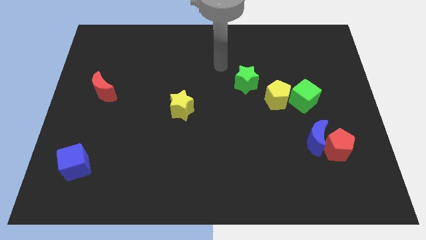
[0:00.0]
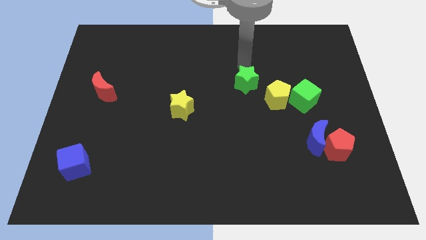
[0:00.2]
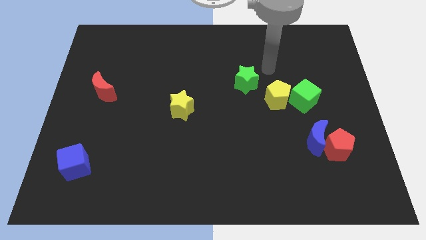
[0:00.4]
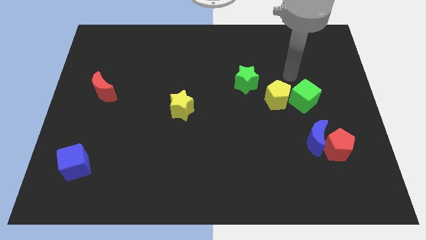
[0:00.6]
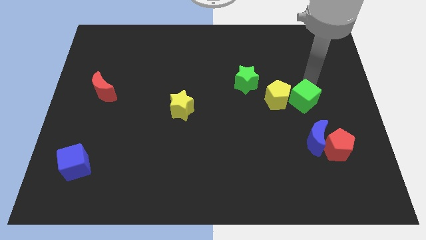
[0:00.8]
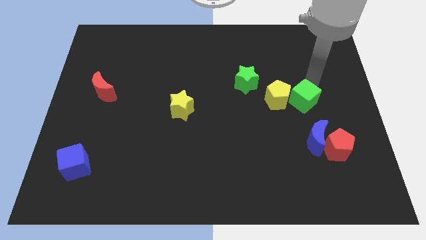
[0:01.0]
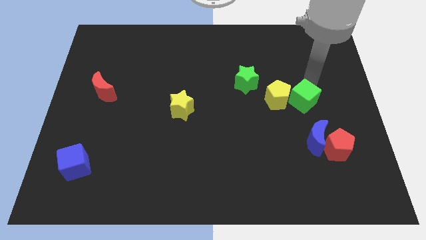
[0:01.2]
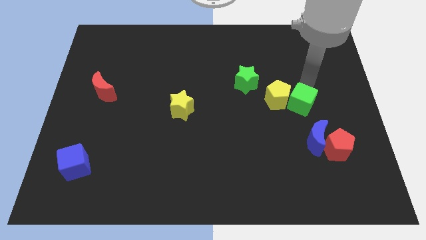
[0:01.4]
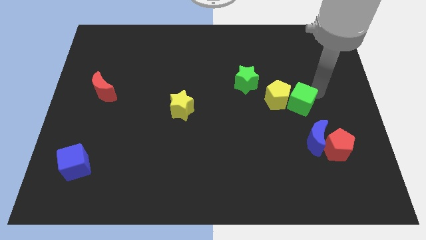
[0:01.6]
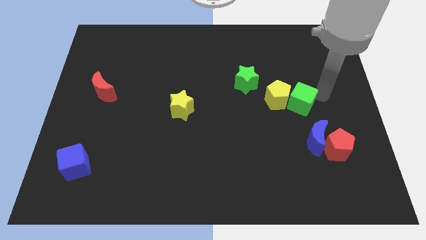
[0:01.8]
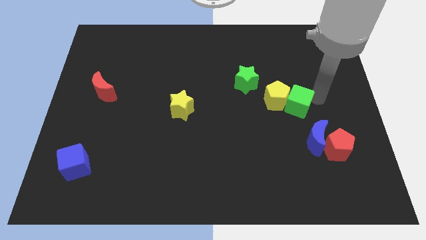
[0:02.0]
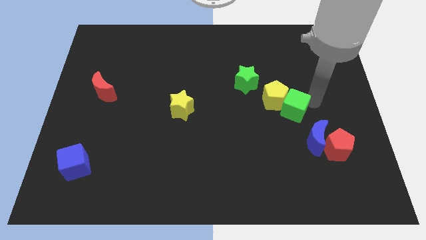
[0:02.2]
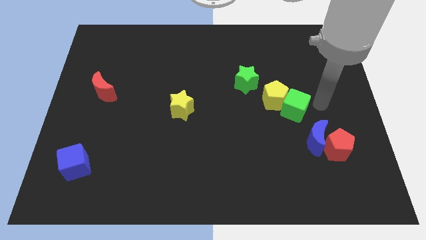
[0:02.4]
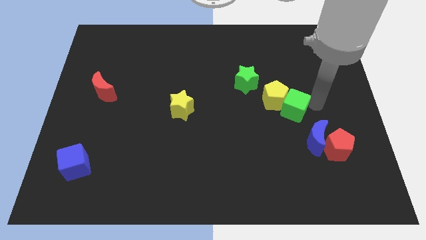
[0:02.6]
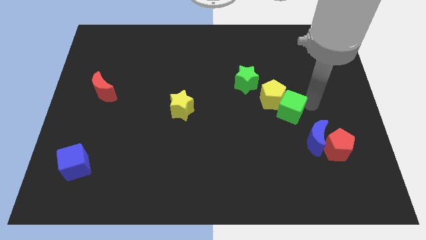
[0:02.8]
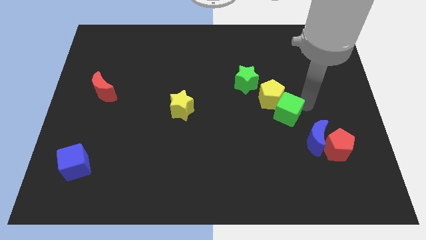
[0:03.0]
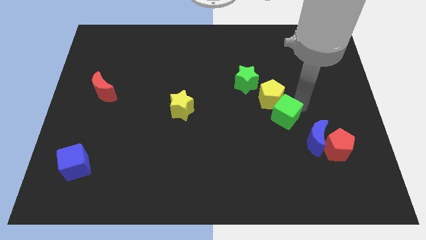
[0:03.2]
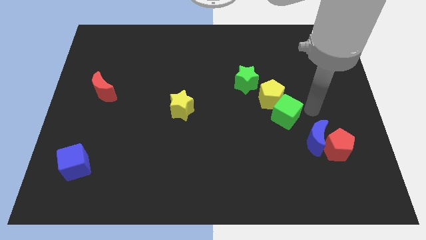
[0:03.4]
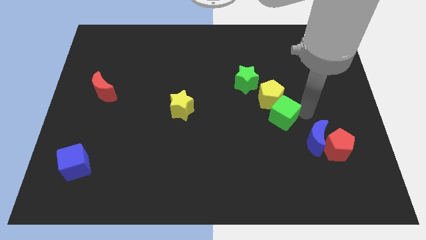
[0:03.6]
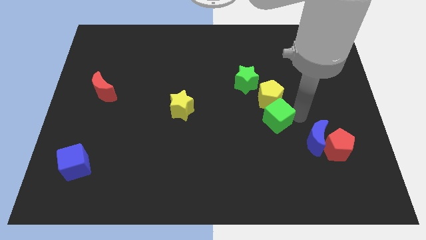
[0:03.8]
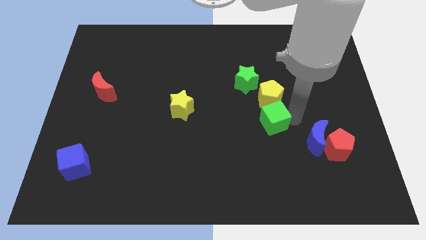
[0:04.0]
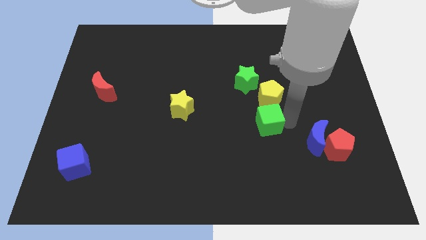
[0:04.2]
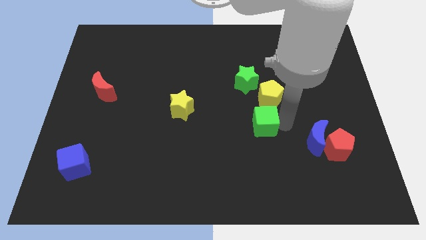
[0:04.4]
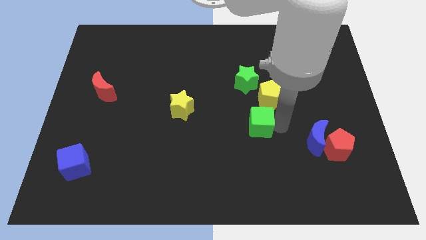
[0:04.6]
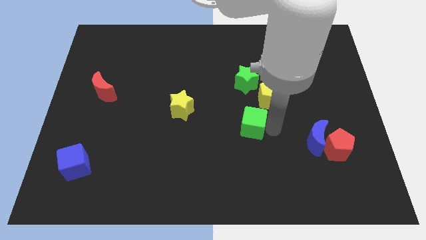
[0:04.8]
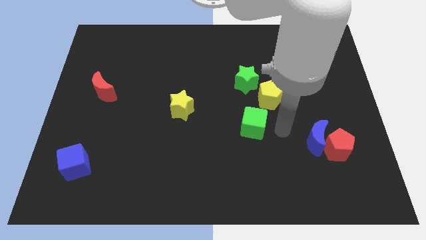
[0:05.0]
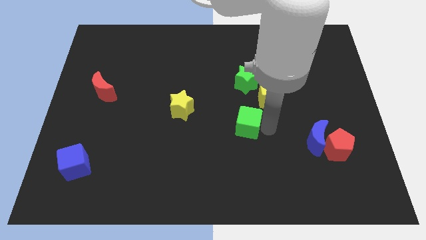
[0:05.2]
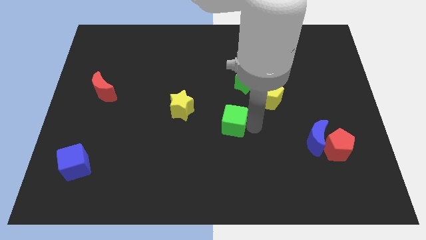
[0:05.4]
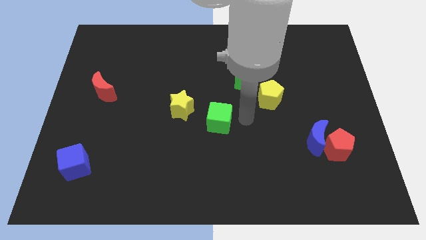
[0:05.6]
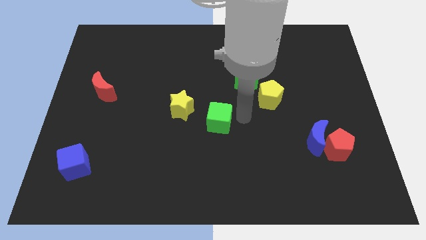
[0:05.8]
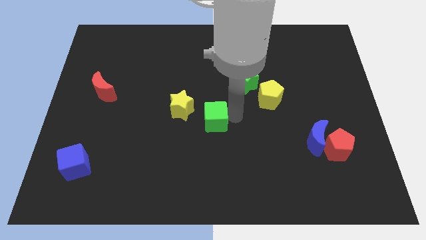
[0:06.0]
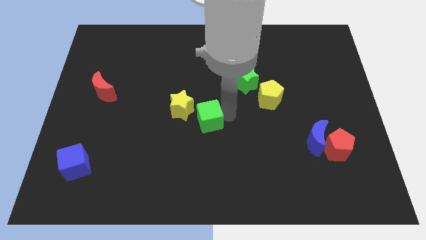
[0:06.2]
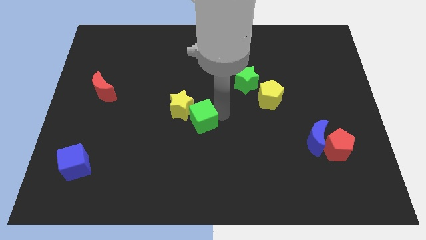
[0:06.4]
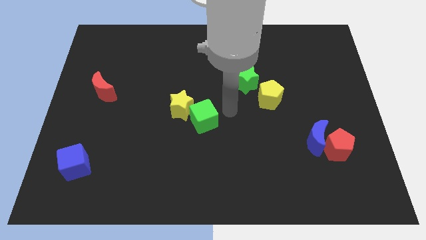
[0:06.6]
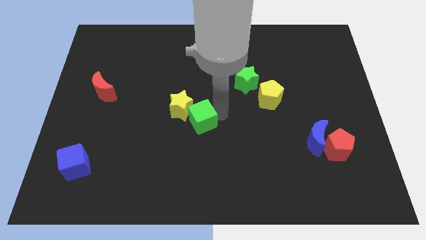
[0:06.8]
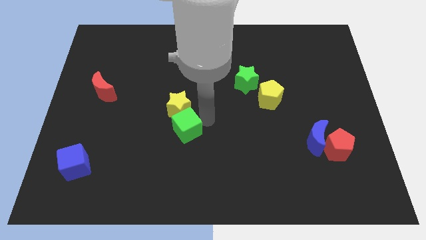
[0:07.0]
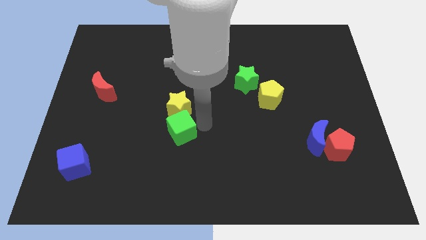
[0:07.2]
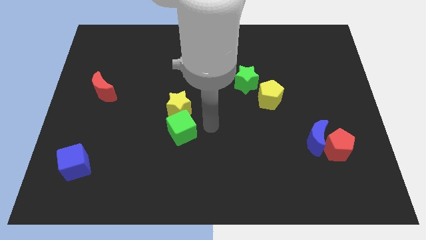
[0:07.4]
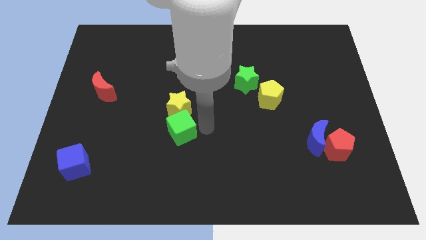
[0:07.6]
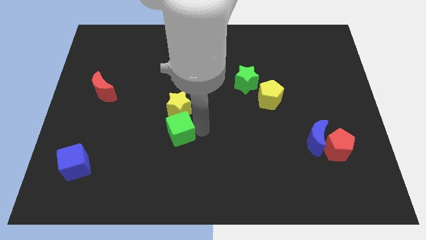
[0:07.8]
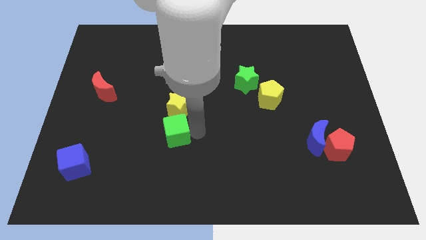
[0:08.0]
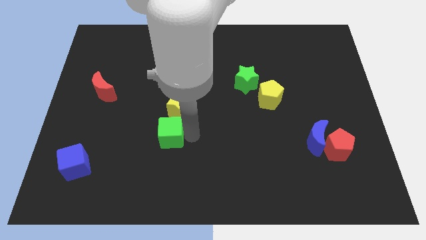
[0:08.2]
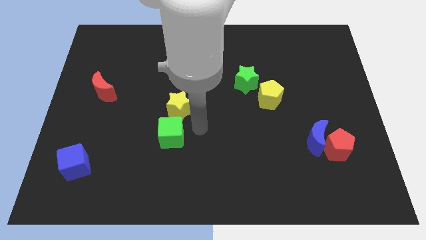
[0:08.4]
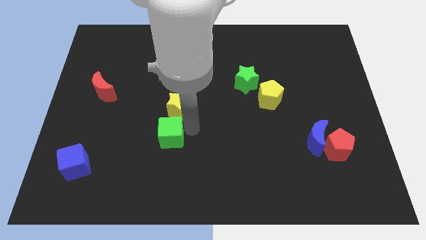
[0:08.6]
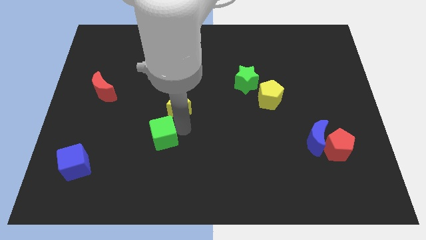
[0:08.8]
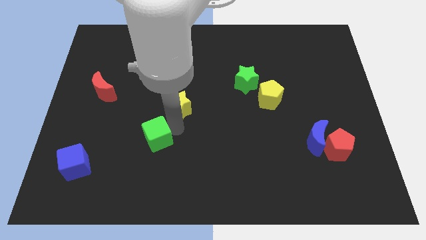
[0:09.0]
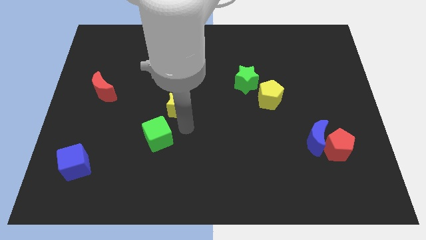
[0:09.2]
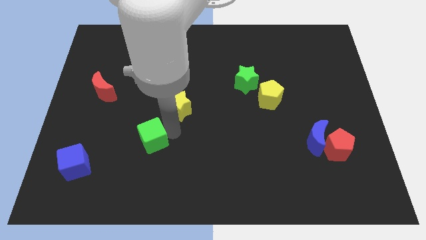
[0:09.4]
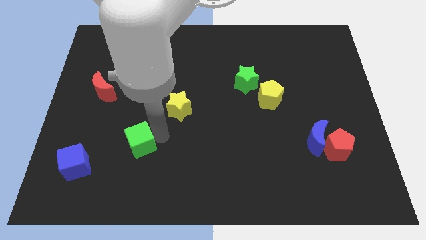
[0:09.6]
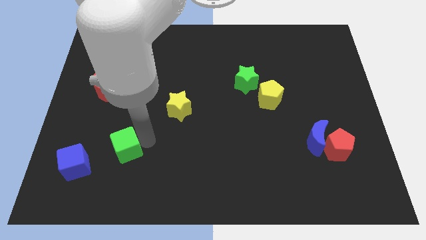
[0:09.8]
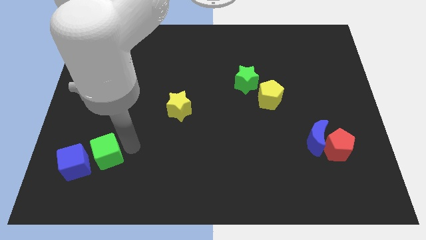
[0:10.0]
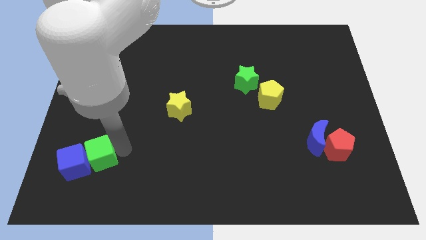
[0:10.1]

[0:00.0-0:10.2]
put the green cube to the blue cube

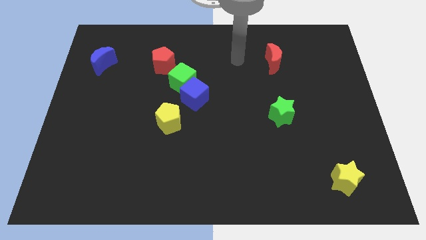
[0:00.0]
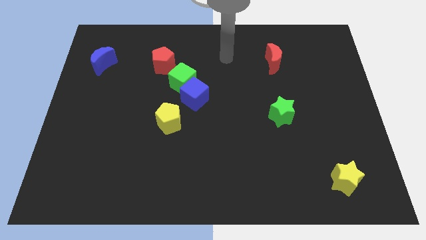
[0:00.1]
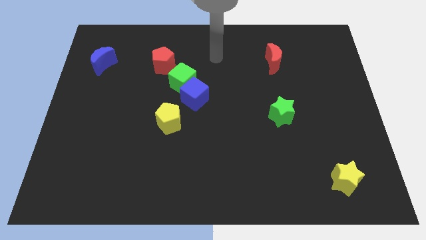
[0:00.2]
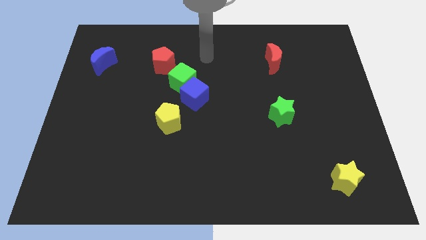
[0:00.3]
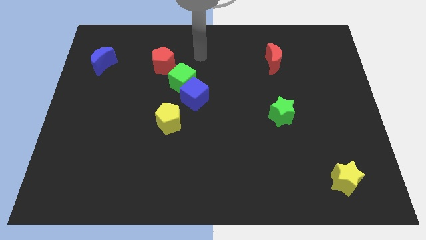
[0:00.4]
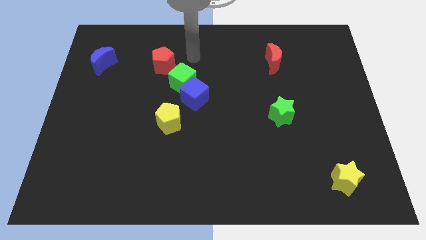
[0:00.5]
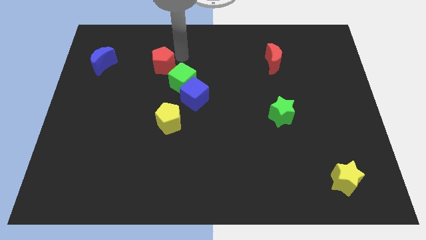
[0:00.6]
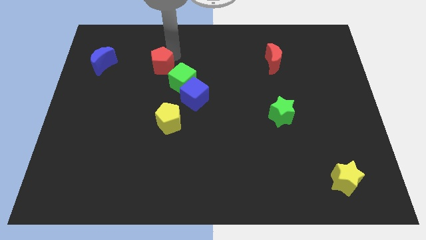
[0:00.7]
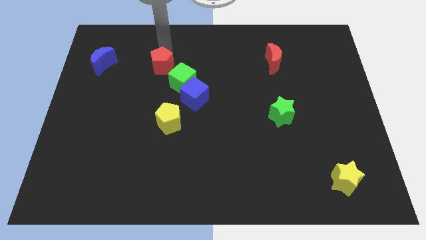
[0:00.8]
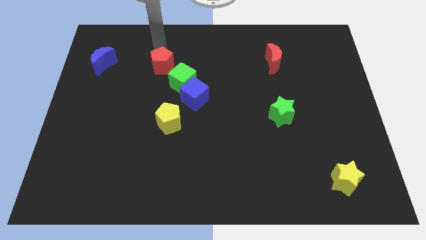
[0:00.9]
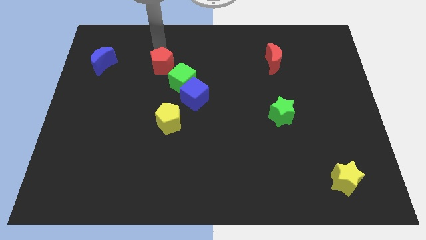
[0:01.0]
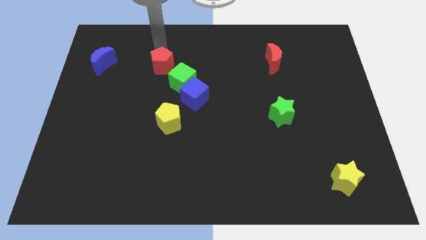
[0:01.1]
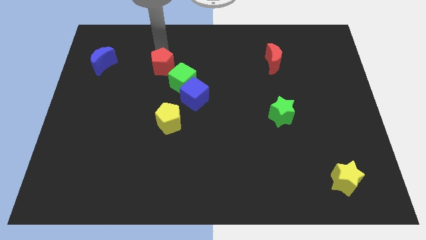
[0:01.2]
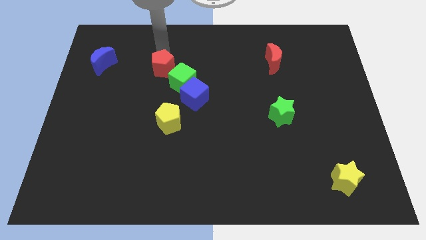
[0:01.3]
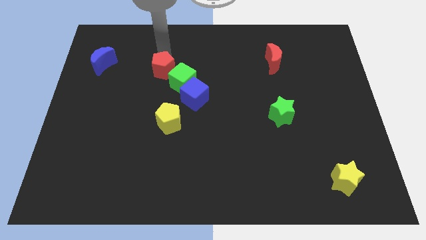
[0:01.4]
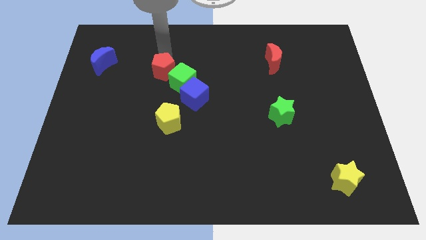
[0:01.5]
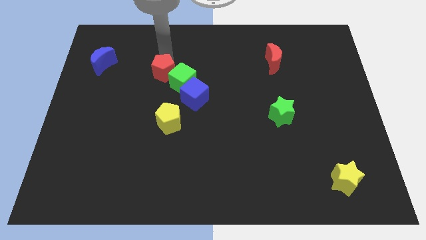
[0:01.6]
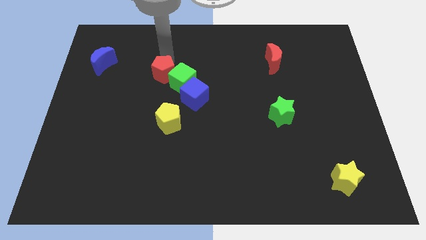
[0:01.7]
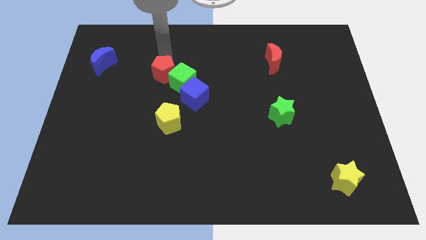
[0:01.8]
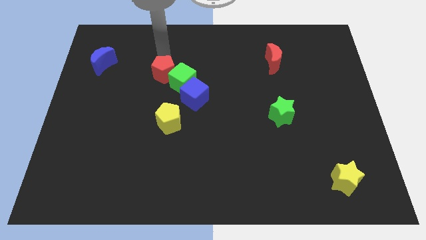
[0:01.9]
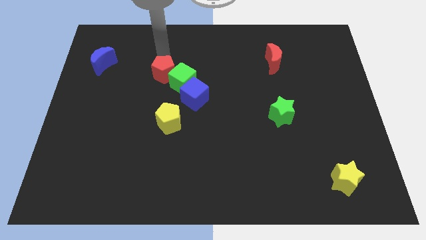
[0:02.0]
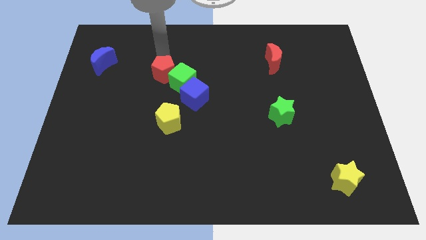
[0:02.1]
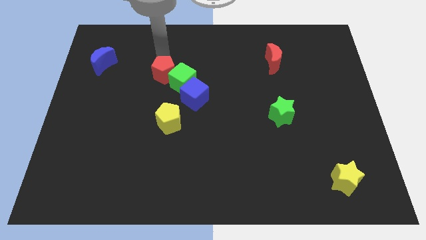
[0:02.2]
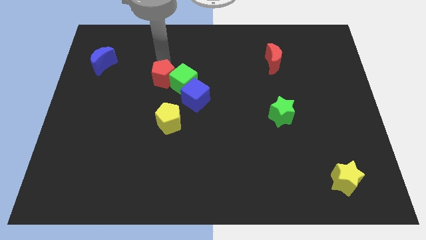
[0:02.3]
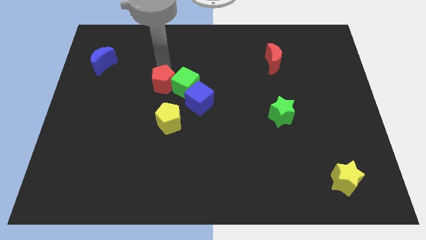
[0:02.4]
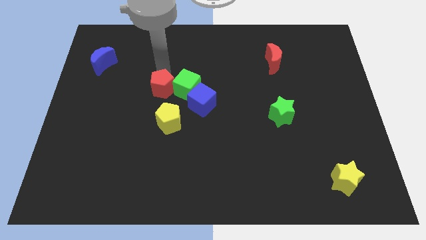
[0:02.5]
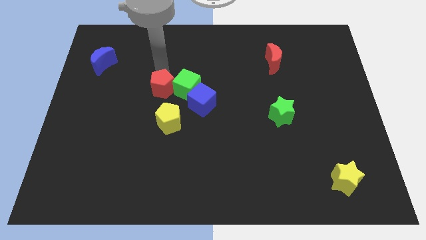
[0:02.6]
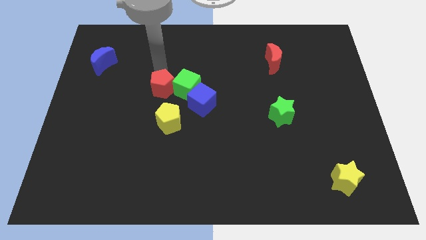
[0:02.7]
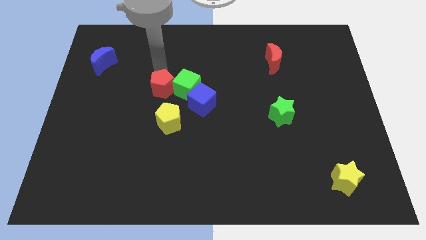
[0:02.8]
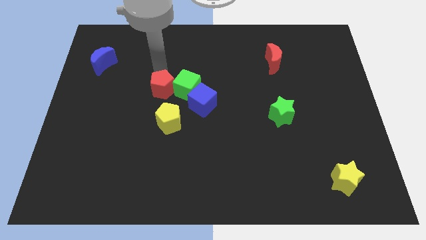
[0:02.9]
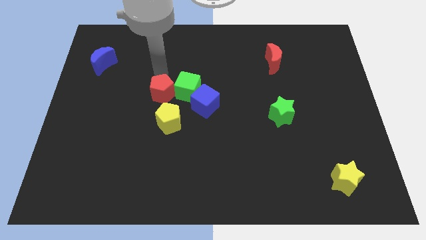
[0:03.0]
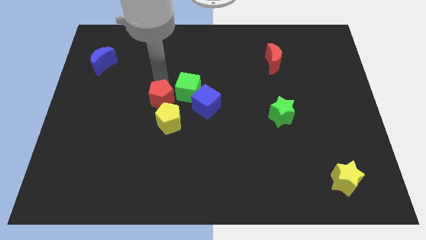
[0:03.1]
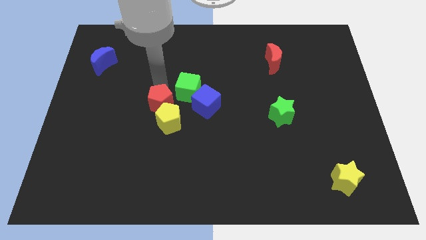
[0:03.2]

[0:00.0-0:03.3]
move the red pentagon to the yellow pentagon
